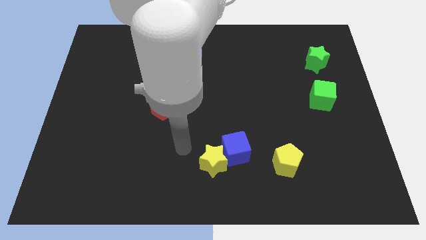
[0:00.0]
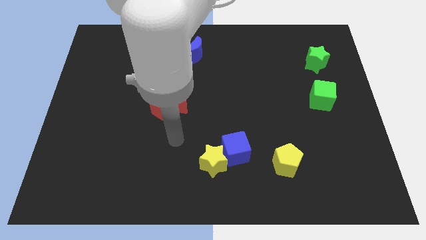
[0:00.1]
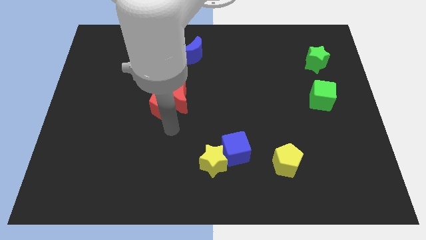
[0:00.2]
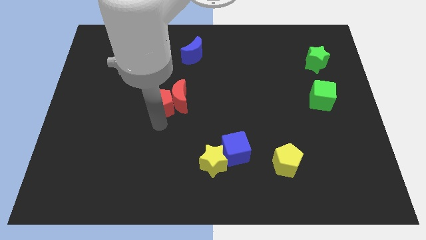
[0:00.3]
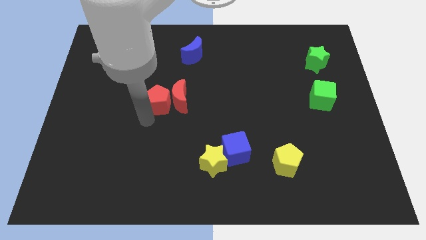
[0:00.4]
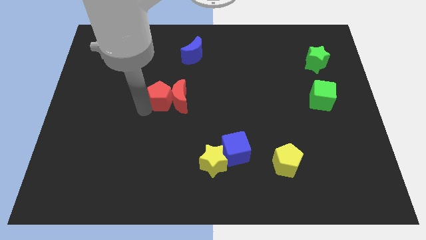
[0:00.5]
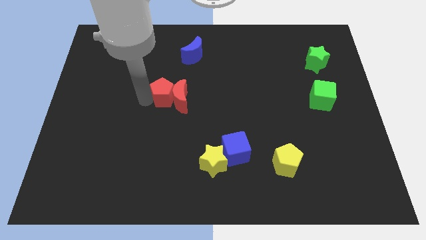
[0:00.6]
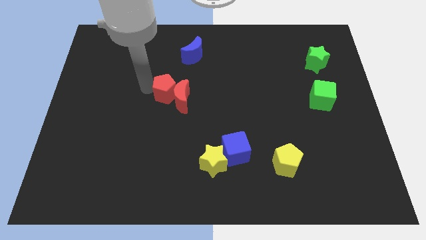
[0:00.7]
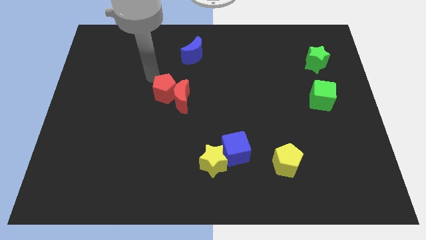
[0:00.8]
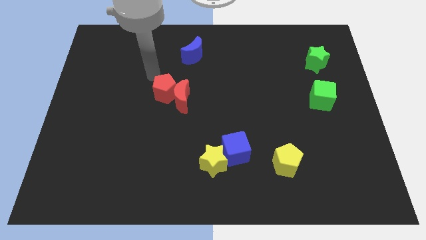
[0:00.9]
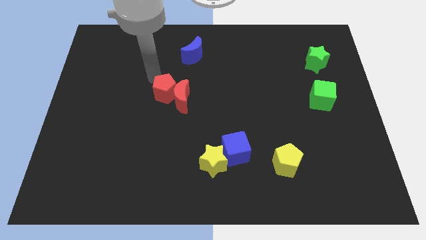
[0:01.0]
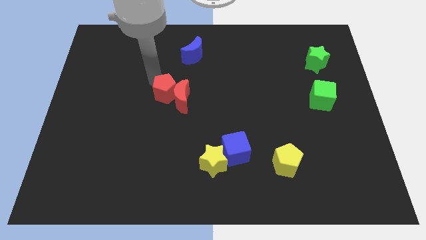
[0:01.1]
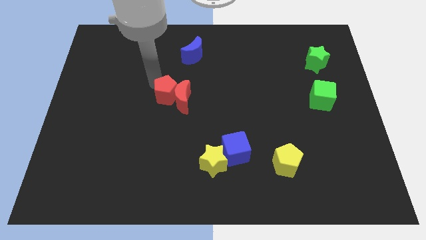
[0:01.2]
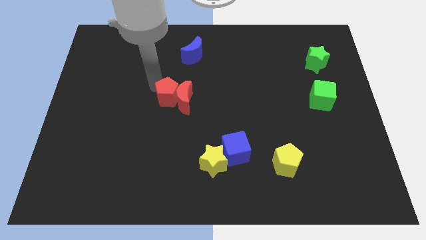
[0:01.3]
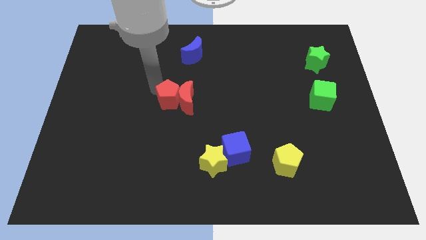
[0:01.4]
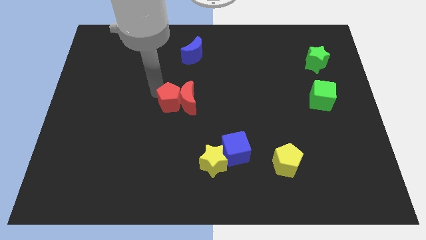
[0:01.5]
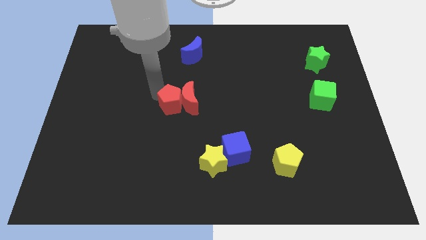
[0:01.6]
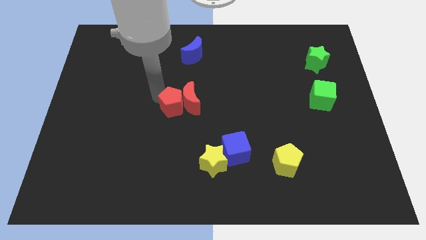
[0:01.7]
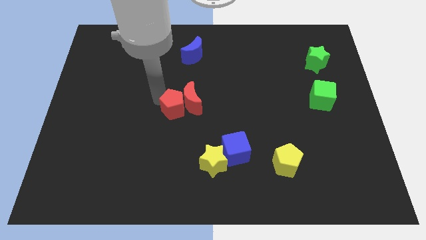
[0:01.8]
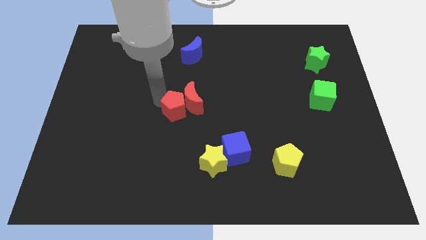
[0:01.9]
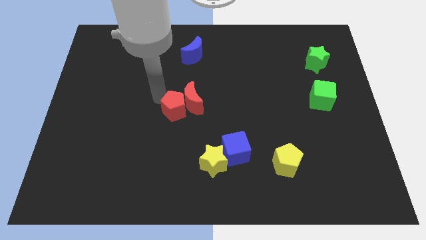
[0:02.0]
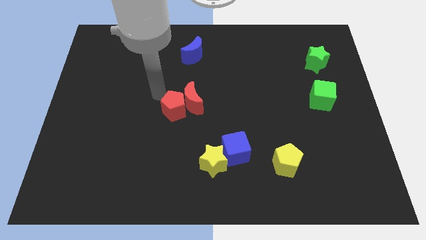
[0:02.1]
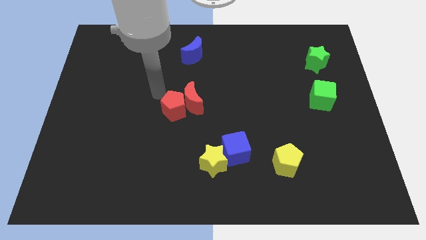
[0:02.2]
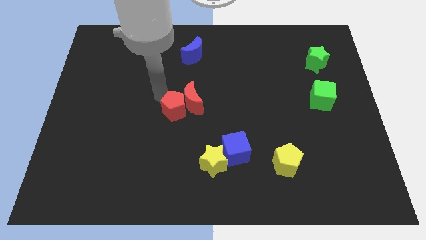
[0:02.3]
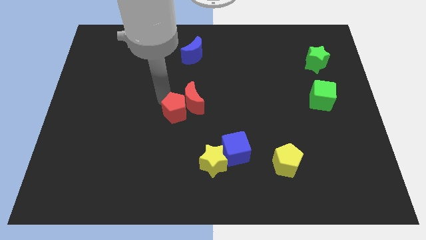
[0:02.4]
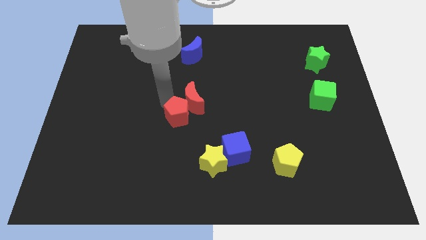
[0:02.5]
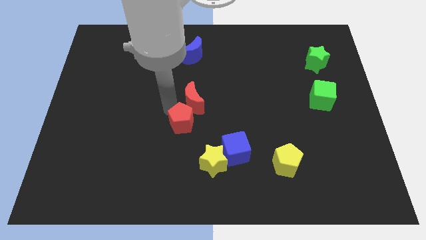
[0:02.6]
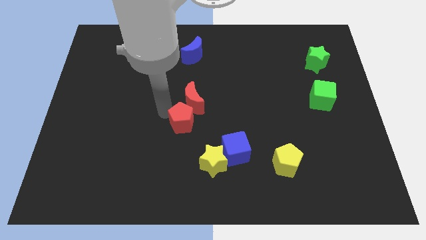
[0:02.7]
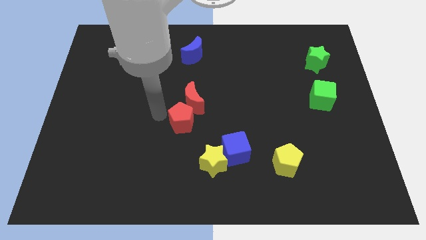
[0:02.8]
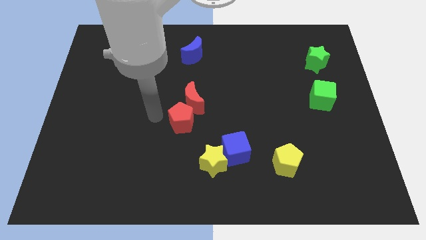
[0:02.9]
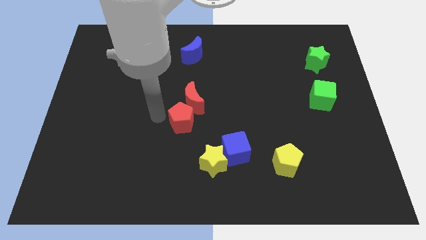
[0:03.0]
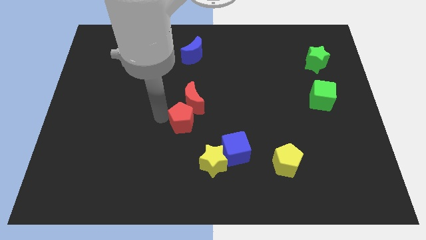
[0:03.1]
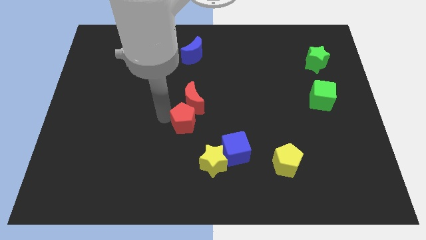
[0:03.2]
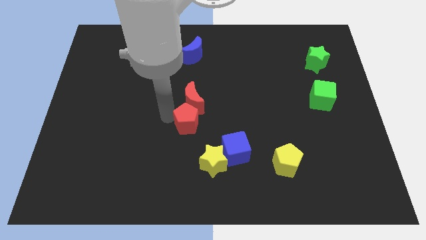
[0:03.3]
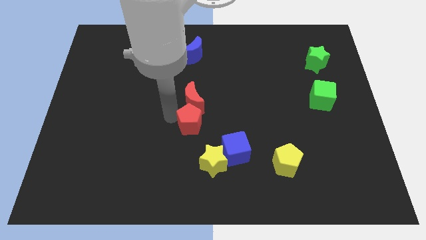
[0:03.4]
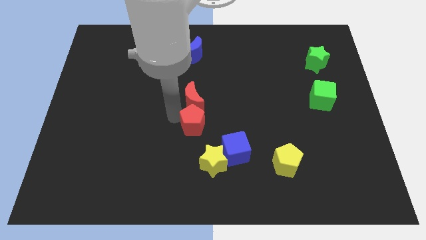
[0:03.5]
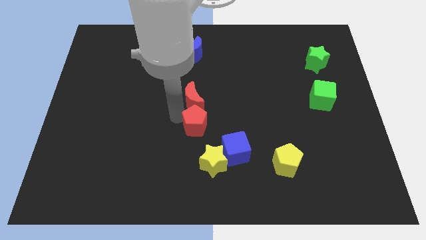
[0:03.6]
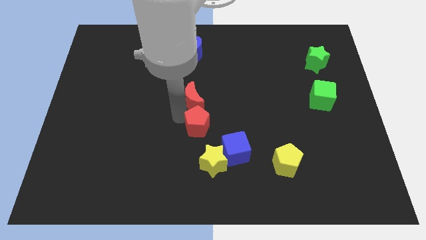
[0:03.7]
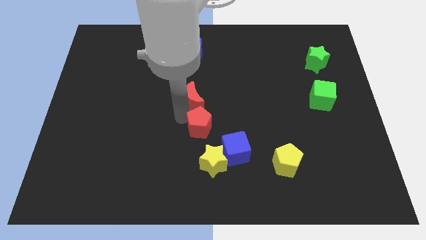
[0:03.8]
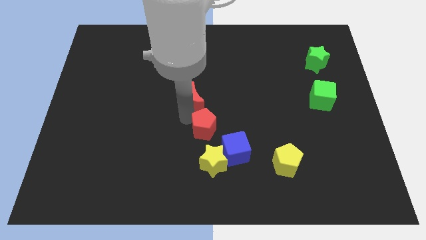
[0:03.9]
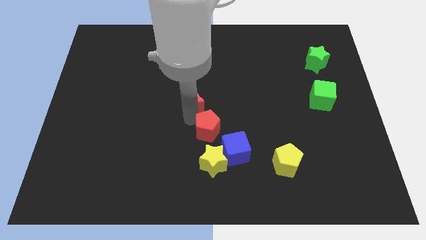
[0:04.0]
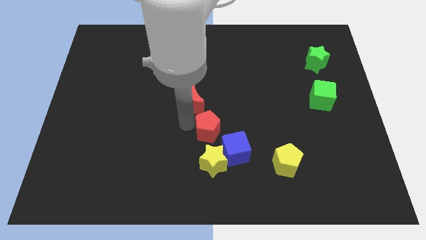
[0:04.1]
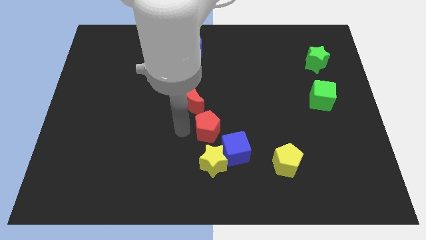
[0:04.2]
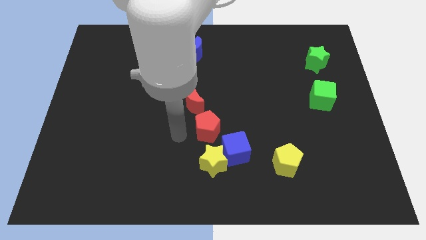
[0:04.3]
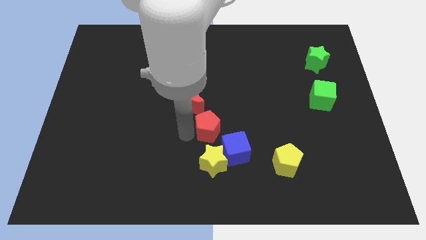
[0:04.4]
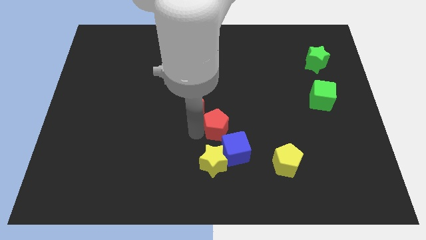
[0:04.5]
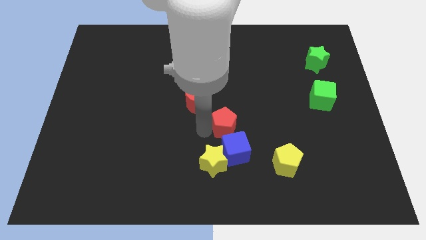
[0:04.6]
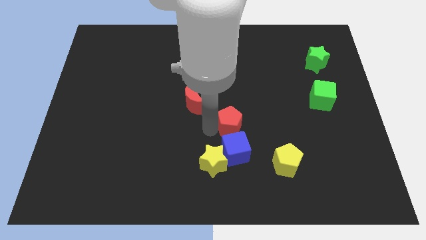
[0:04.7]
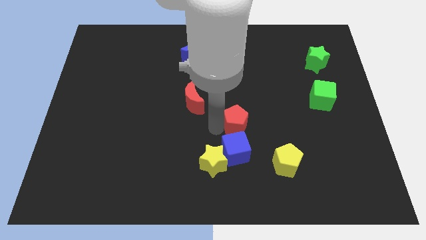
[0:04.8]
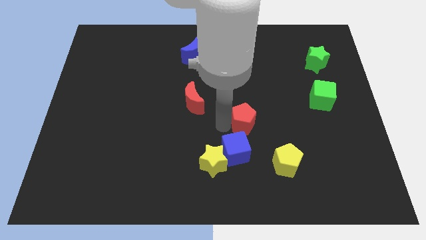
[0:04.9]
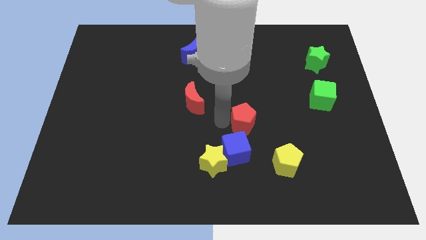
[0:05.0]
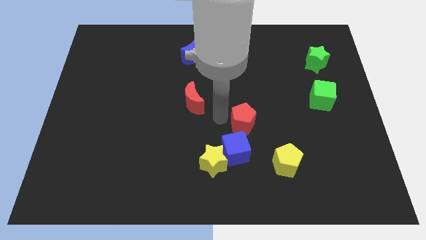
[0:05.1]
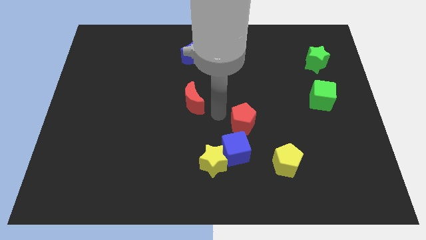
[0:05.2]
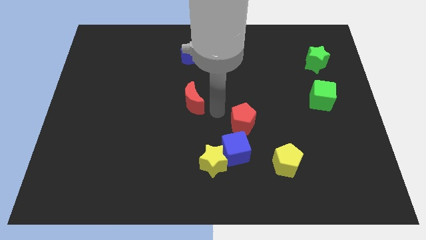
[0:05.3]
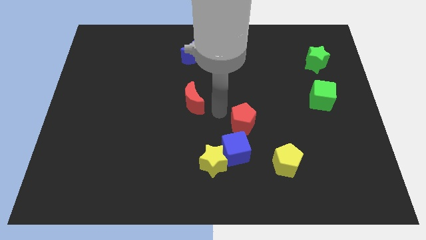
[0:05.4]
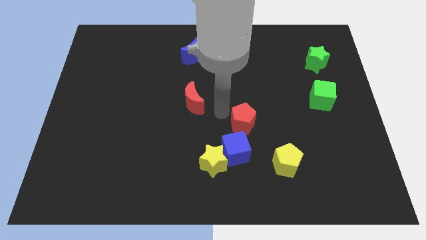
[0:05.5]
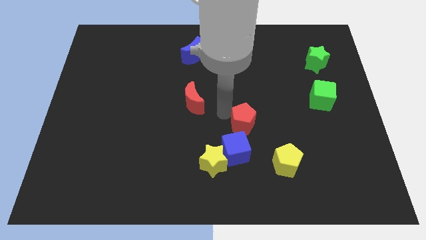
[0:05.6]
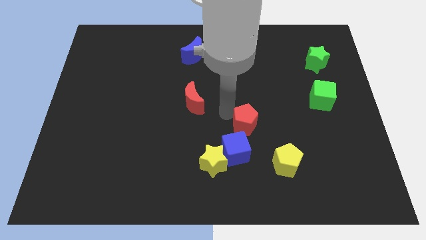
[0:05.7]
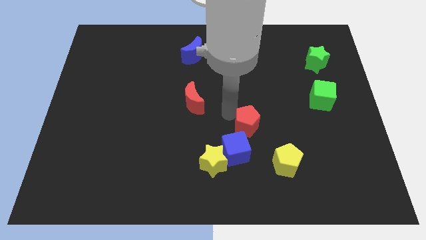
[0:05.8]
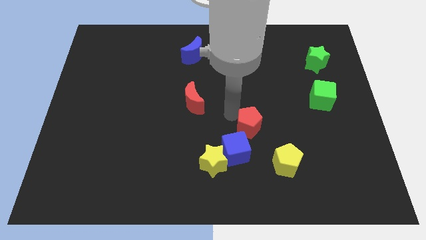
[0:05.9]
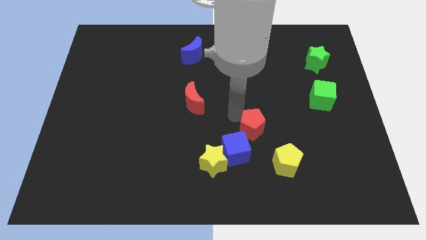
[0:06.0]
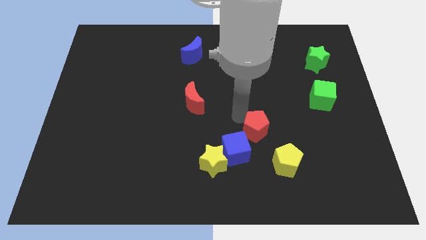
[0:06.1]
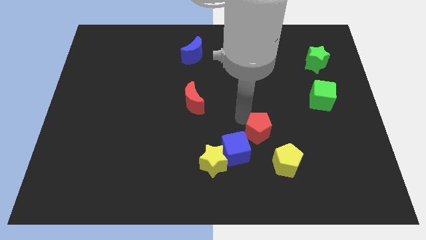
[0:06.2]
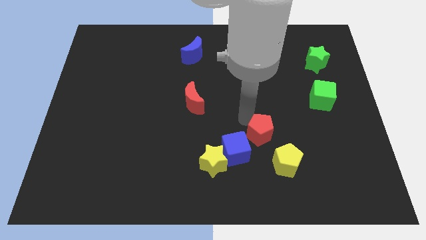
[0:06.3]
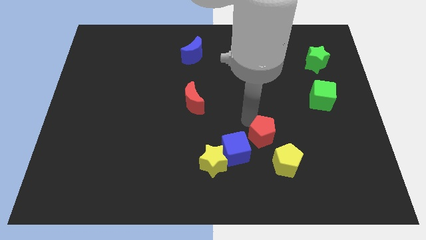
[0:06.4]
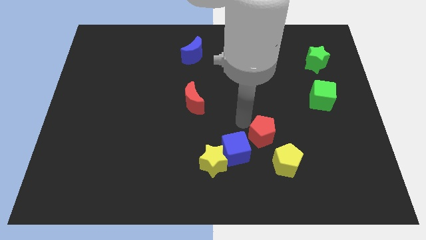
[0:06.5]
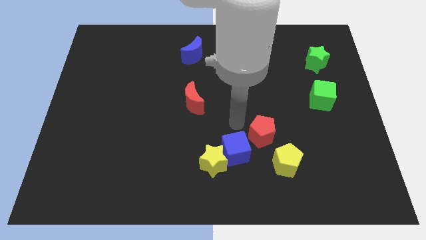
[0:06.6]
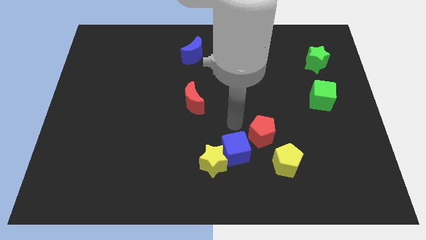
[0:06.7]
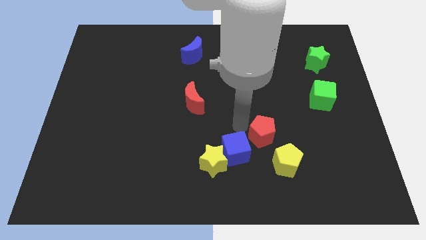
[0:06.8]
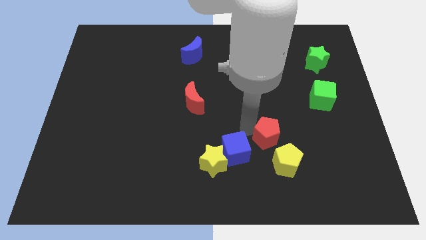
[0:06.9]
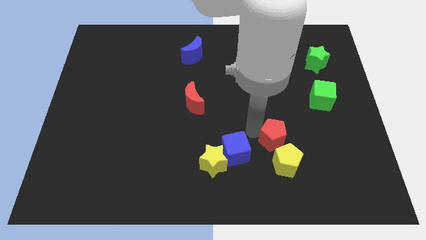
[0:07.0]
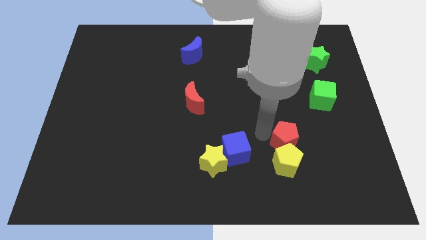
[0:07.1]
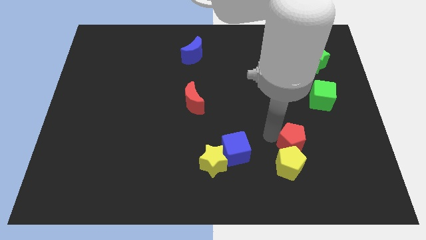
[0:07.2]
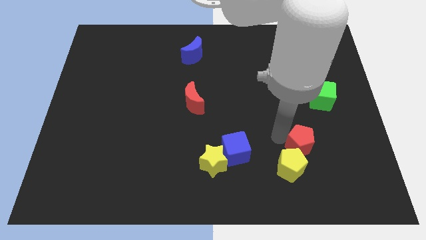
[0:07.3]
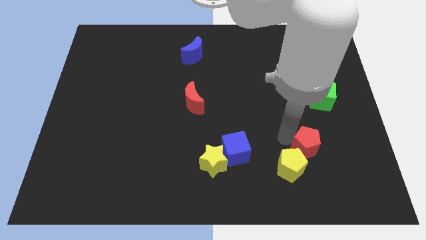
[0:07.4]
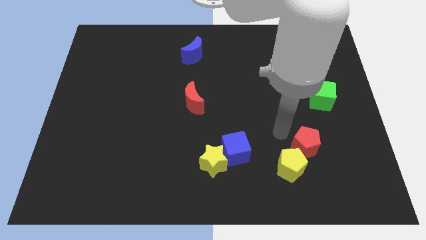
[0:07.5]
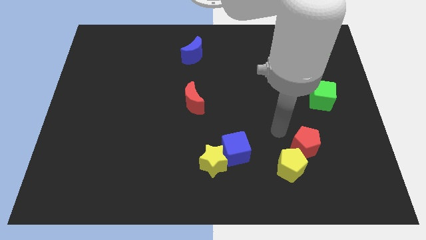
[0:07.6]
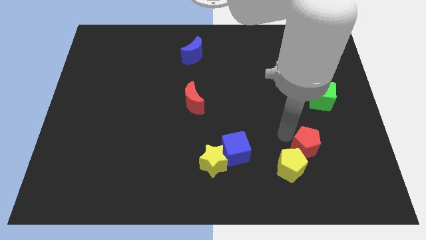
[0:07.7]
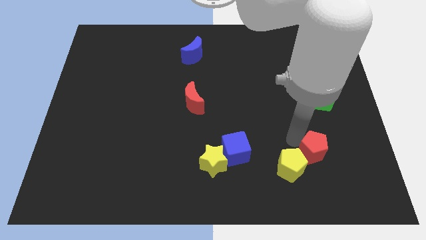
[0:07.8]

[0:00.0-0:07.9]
slide the red pentagon right of the yellow pentagon
